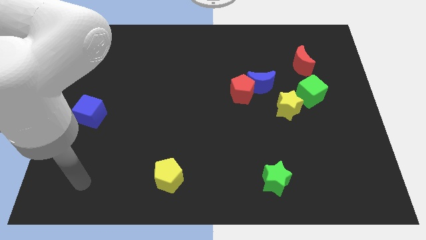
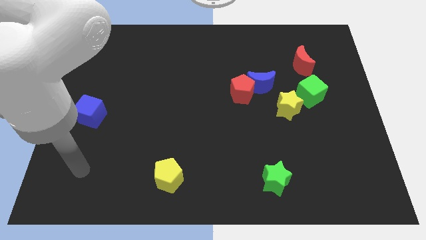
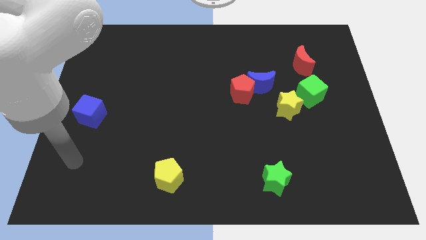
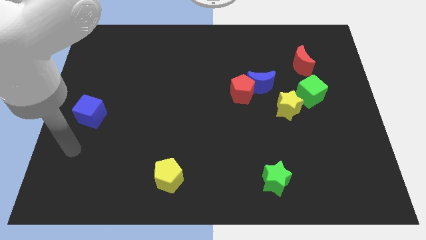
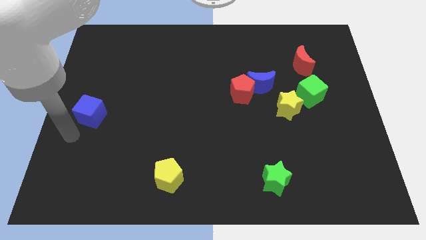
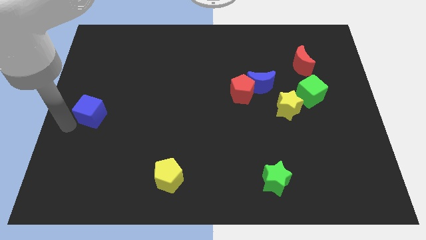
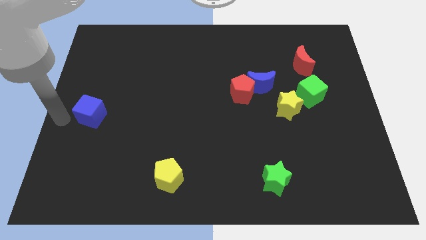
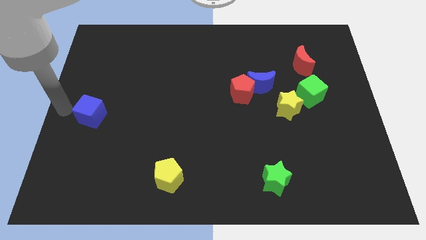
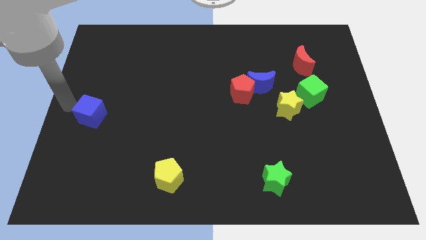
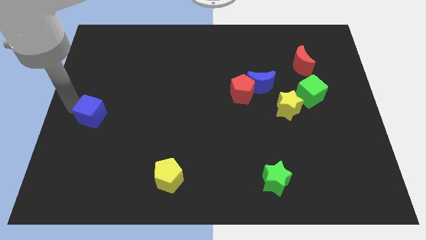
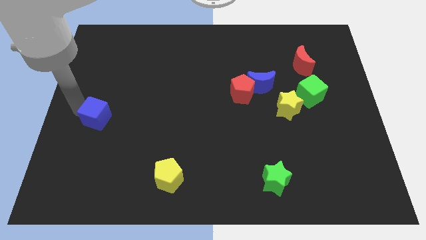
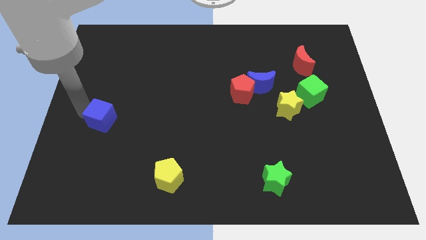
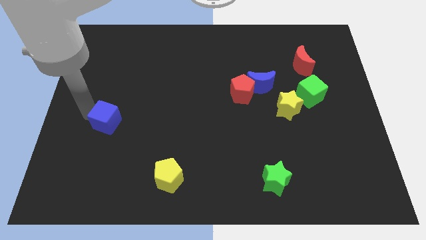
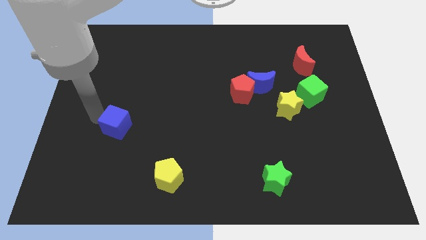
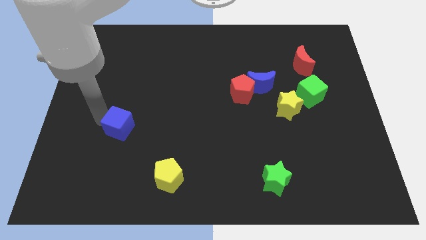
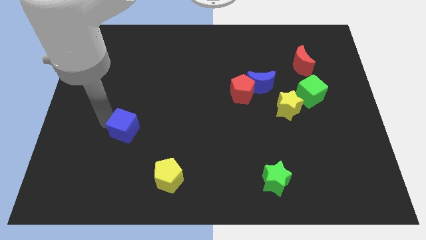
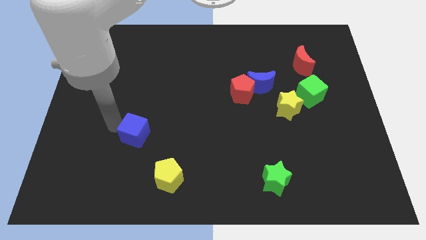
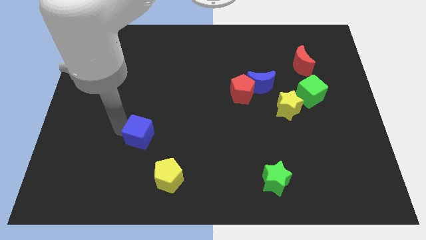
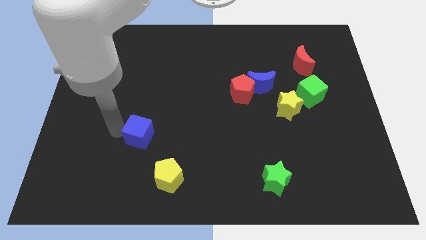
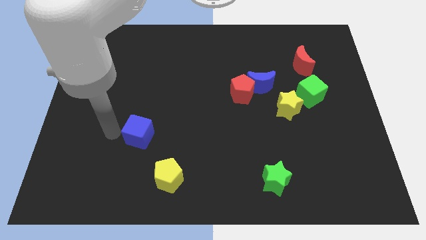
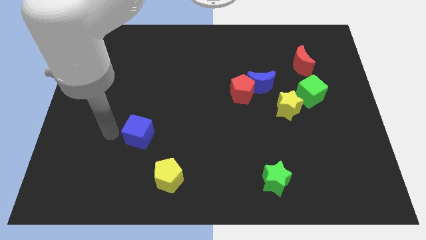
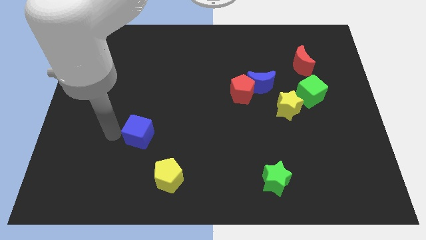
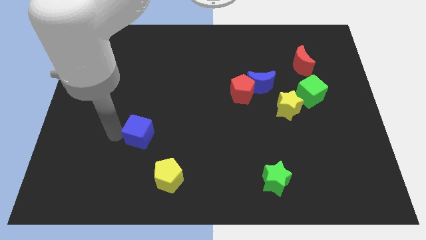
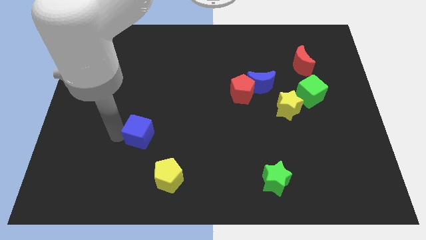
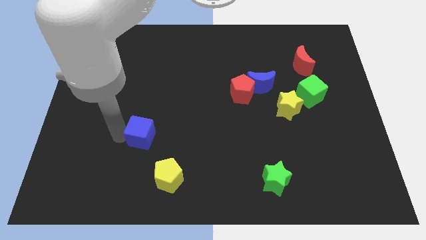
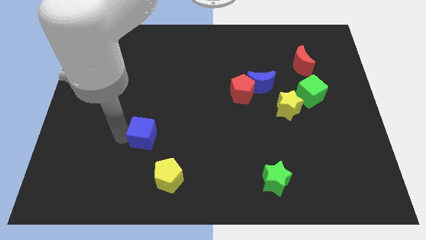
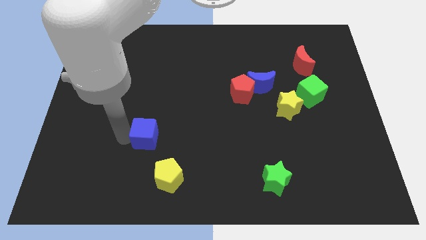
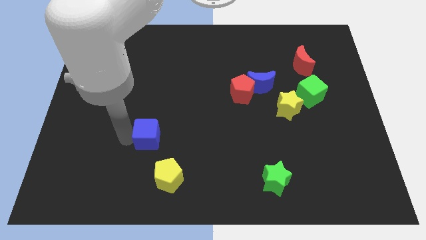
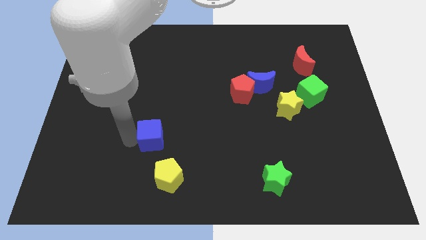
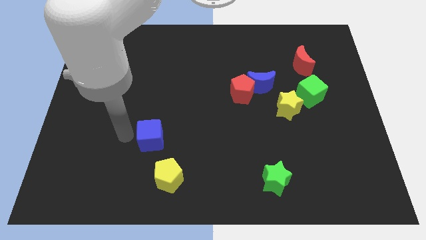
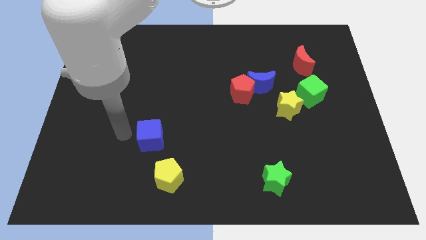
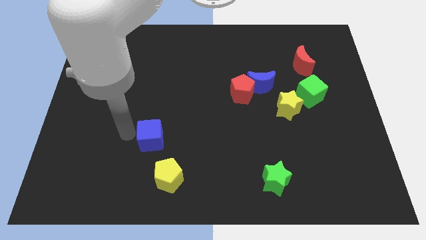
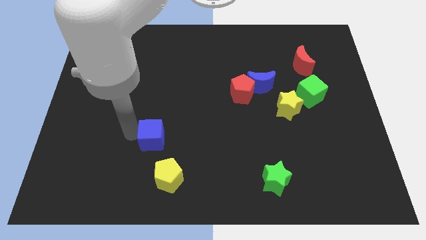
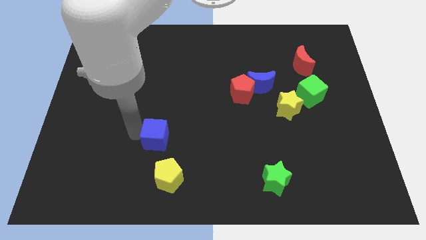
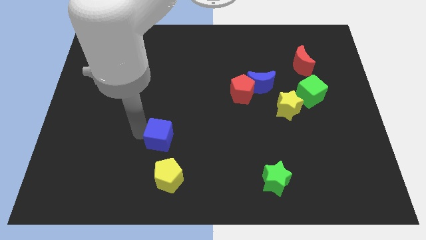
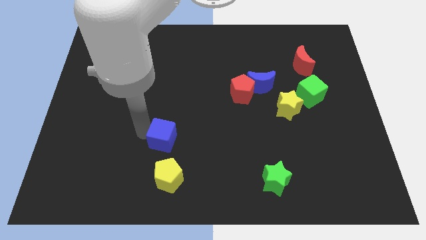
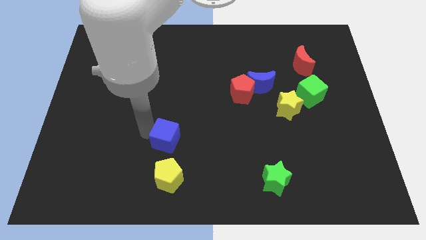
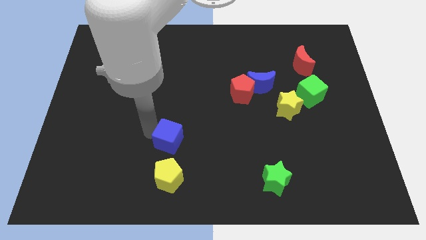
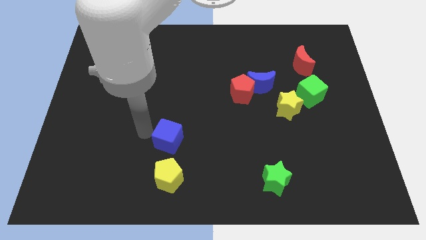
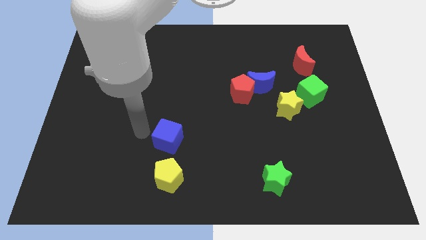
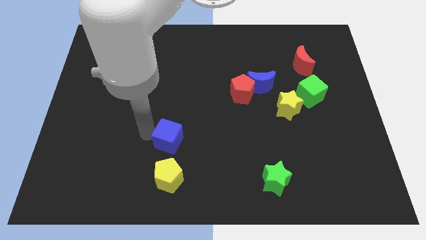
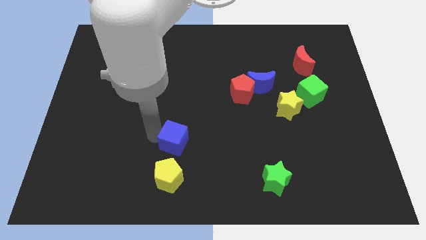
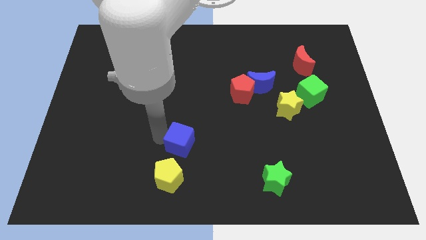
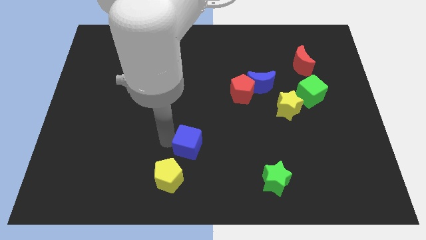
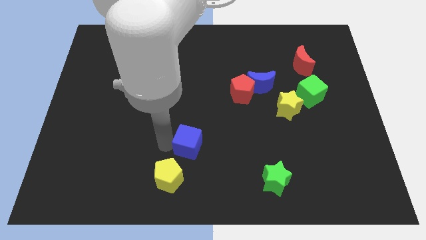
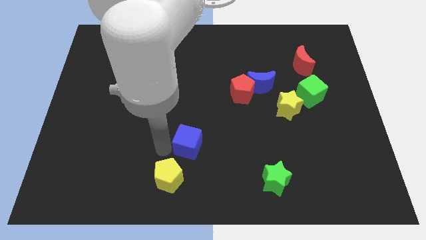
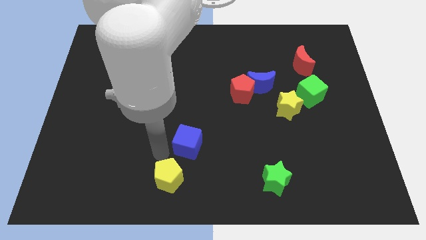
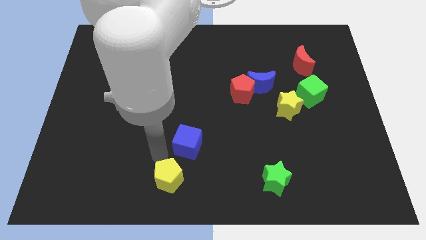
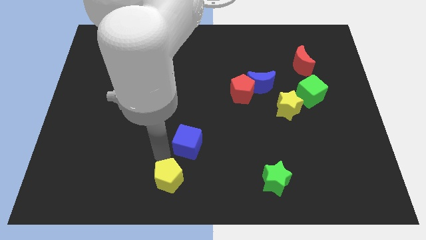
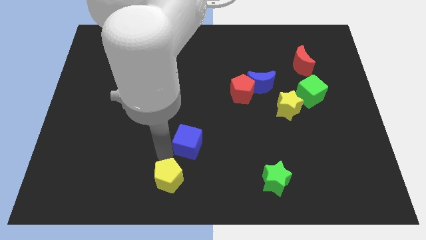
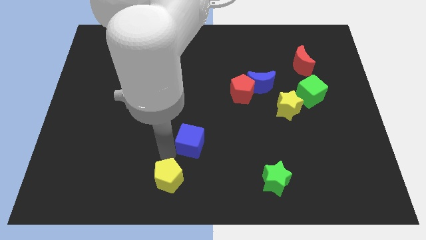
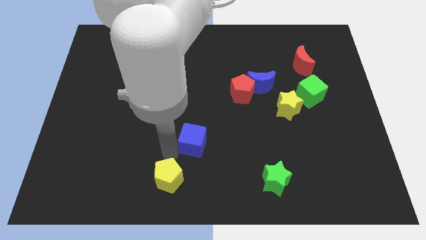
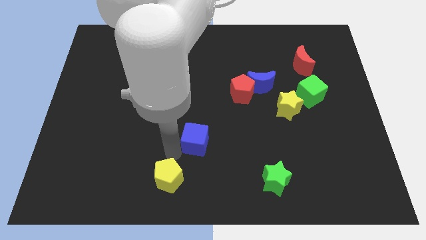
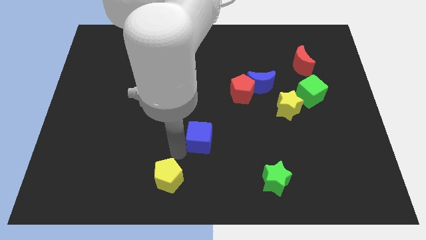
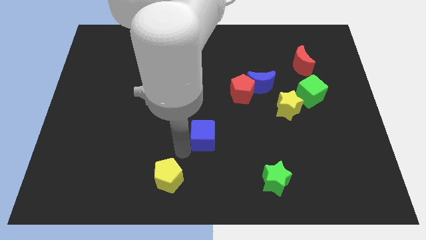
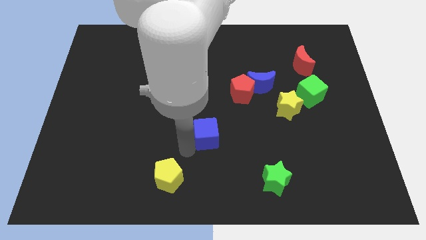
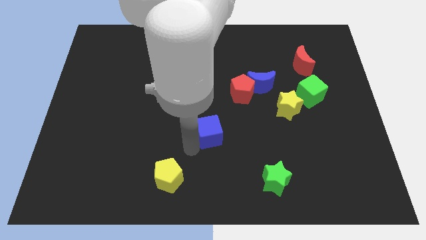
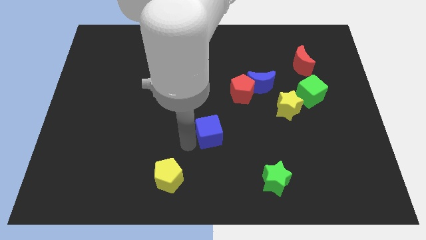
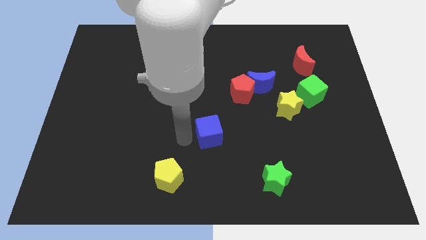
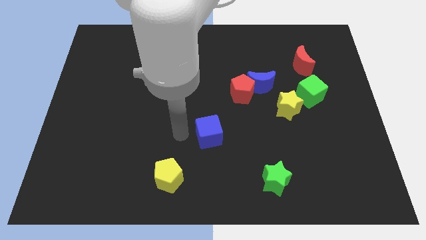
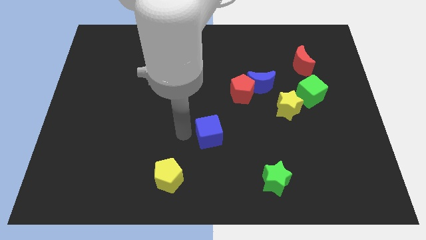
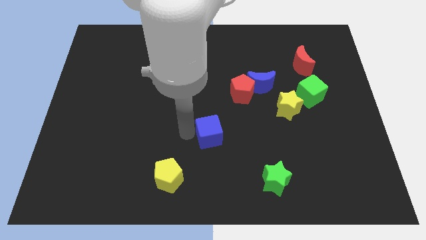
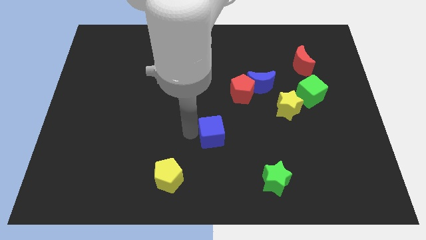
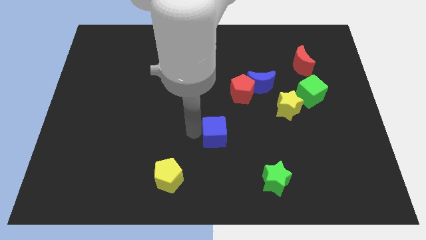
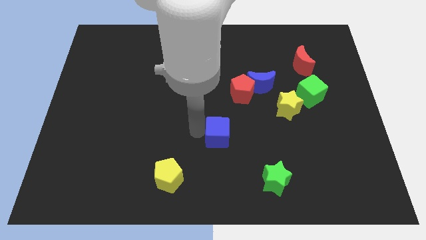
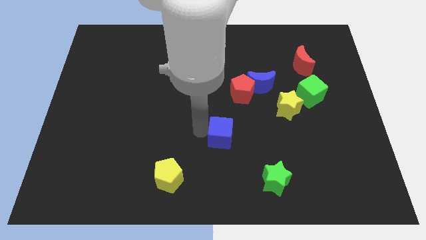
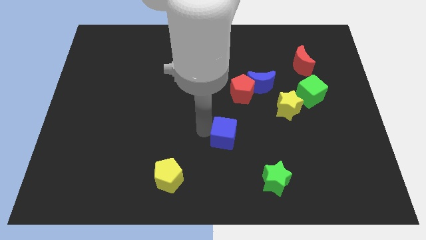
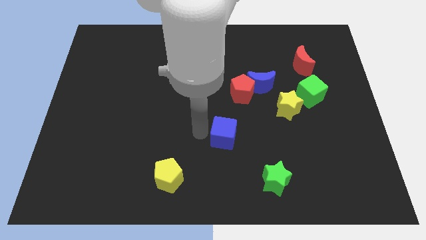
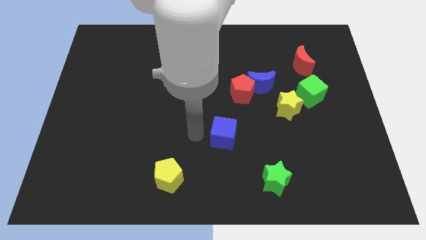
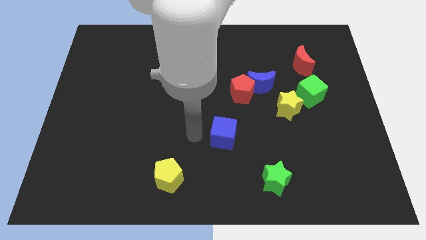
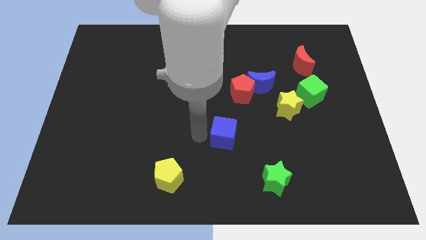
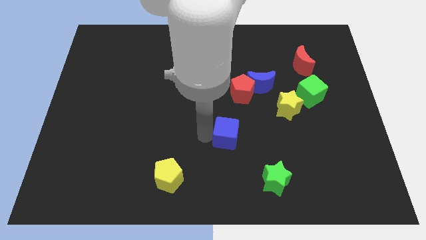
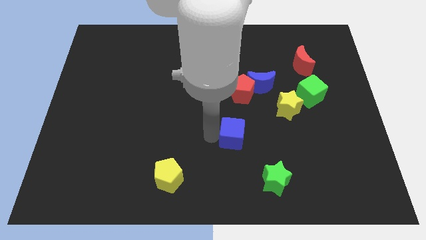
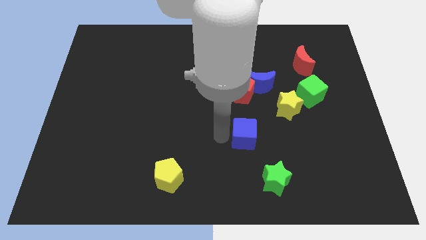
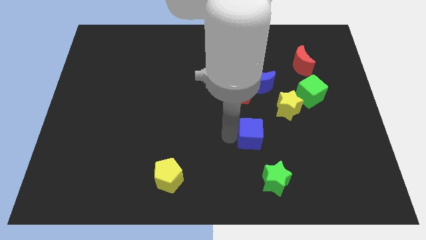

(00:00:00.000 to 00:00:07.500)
push the blue cube to the top of the green star
